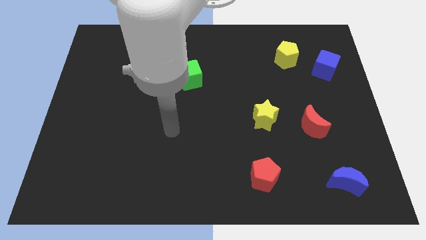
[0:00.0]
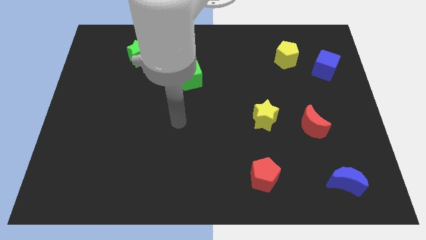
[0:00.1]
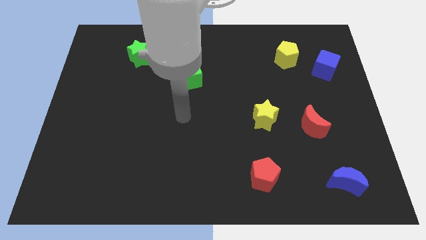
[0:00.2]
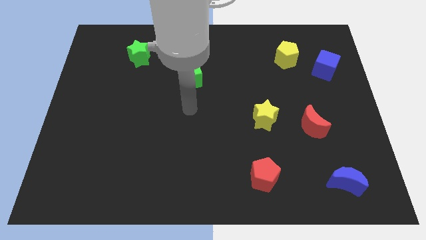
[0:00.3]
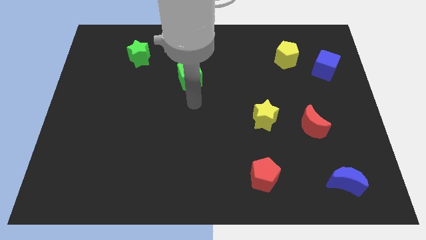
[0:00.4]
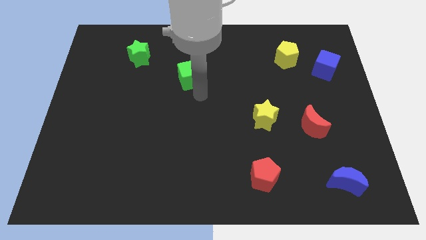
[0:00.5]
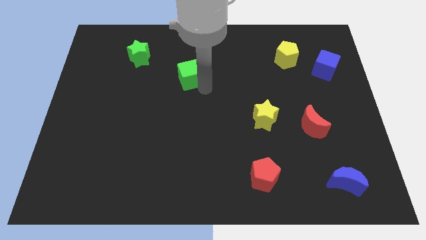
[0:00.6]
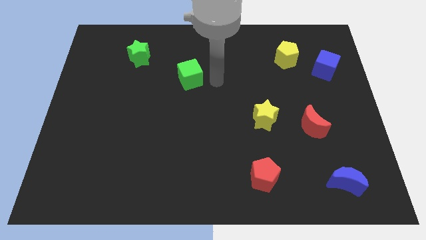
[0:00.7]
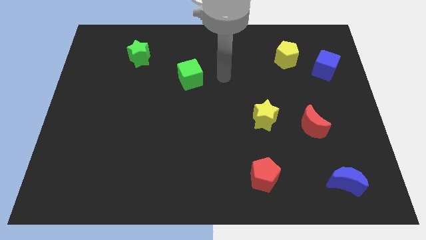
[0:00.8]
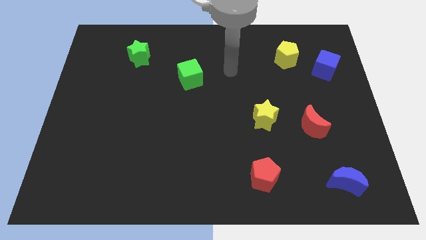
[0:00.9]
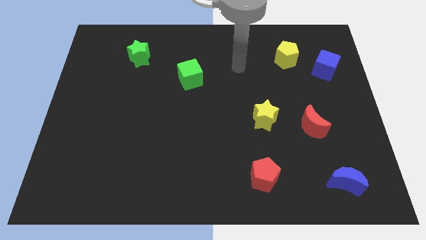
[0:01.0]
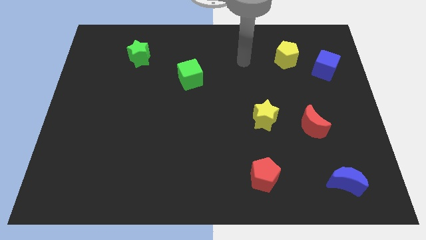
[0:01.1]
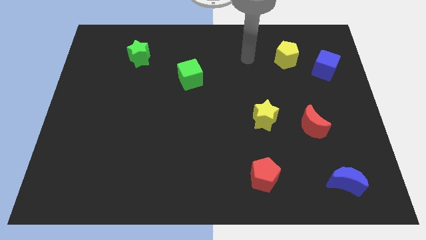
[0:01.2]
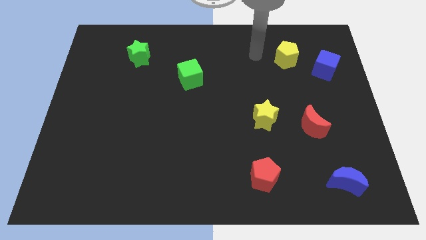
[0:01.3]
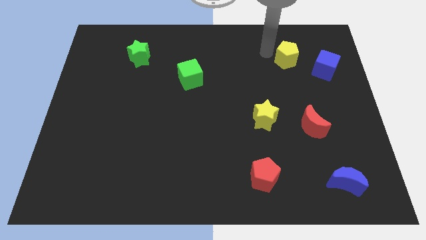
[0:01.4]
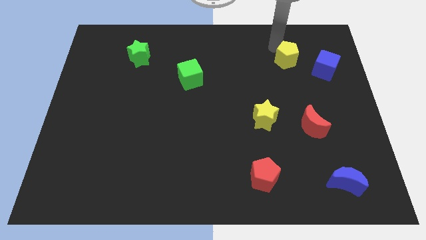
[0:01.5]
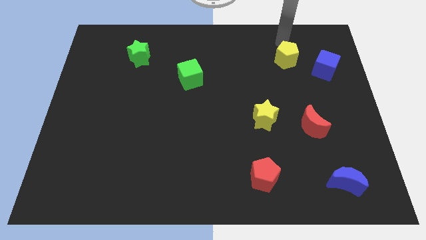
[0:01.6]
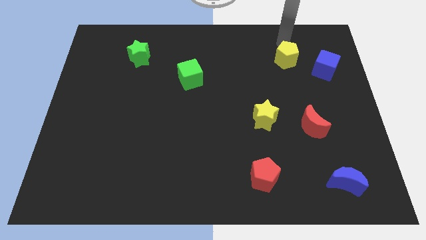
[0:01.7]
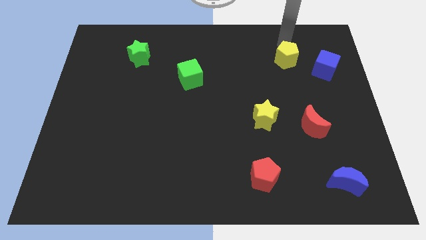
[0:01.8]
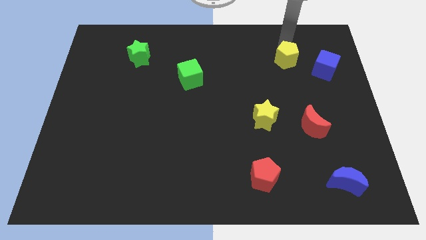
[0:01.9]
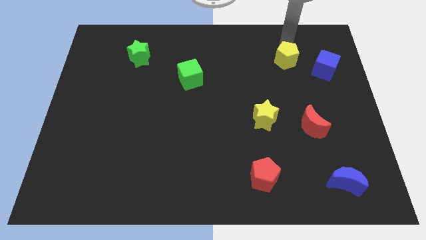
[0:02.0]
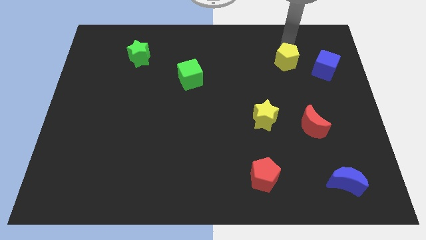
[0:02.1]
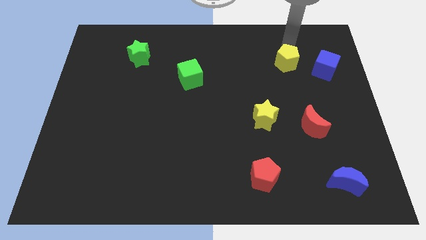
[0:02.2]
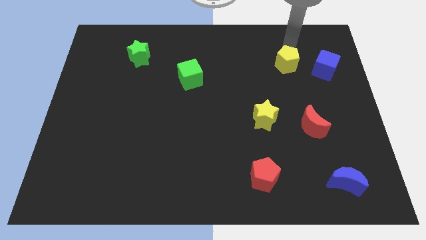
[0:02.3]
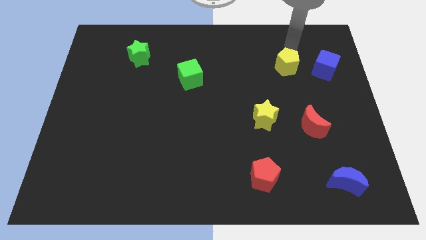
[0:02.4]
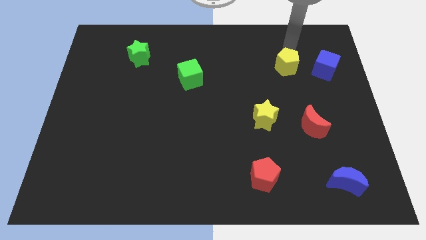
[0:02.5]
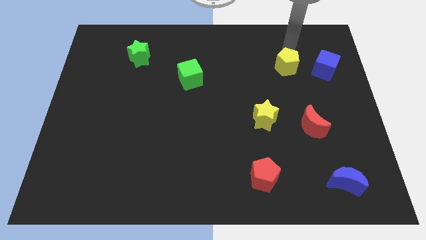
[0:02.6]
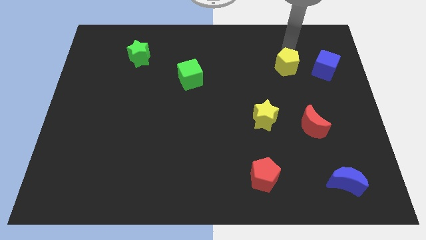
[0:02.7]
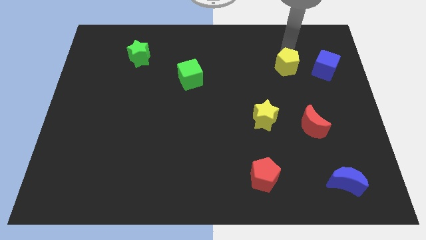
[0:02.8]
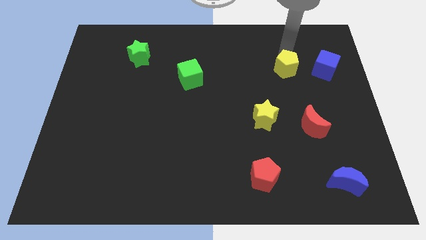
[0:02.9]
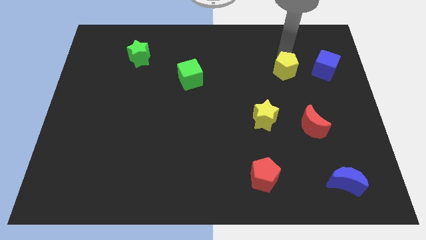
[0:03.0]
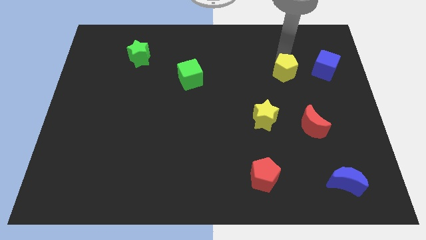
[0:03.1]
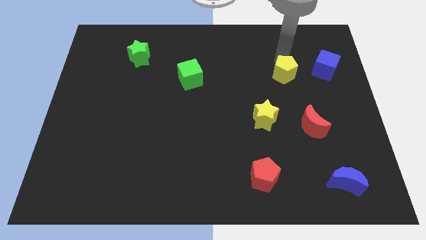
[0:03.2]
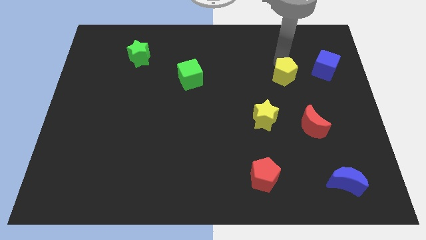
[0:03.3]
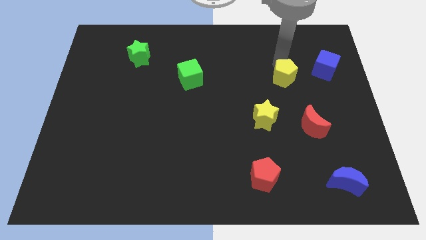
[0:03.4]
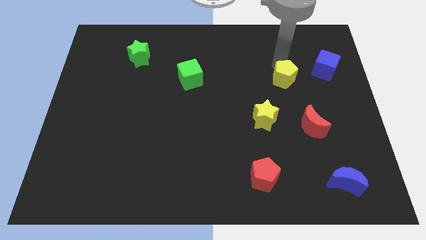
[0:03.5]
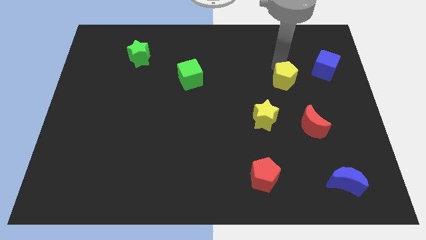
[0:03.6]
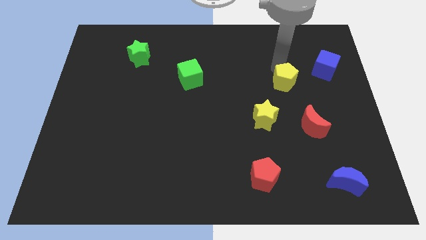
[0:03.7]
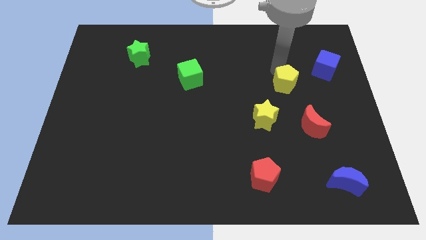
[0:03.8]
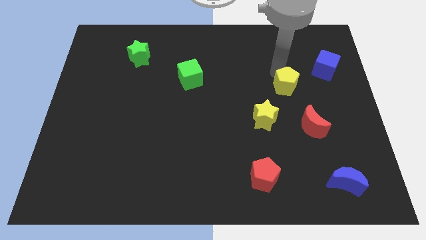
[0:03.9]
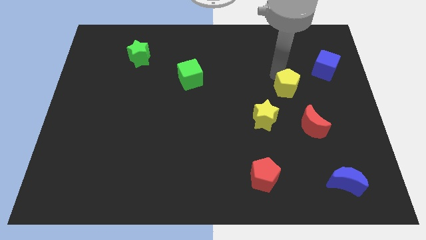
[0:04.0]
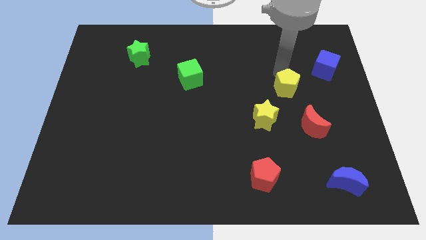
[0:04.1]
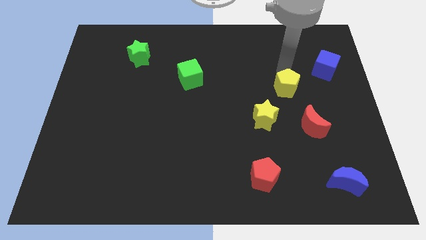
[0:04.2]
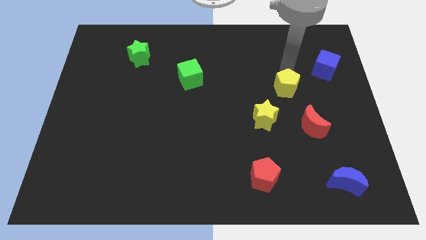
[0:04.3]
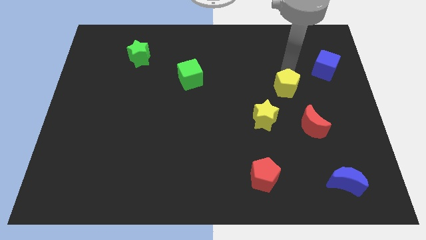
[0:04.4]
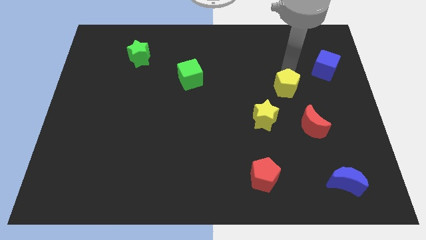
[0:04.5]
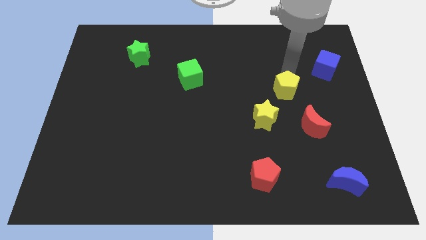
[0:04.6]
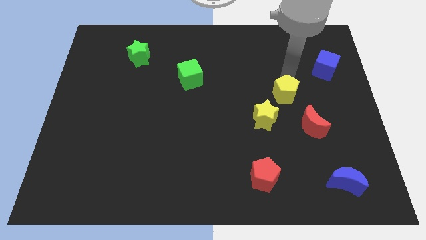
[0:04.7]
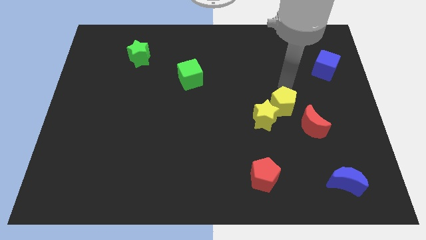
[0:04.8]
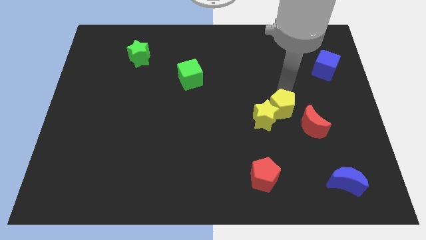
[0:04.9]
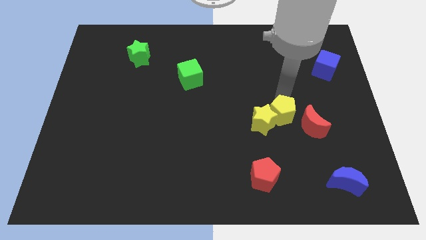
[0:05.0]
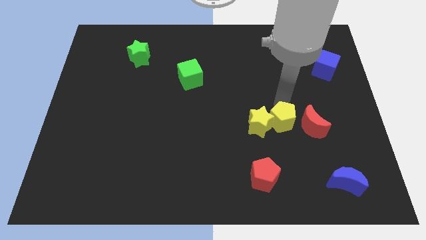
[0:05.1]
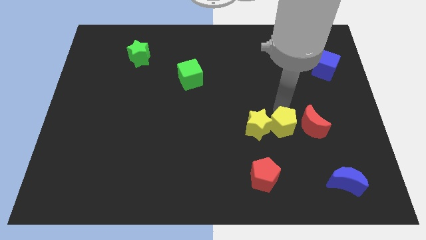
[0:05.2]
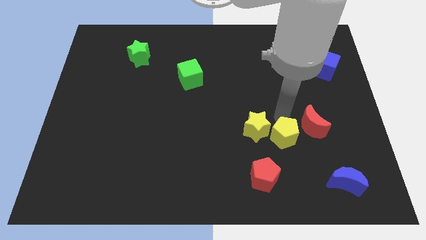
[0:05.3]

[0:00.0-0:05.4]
slide the yellow pentagon to the top right of the red pentagon

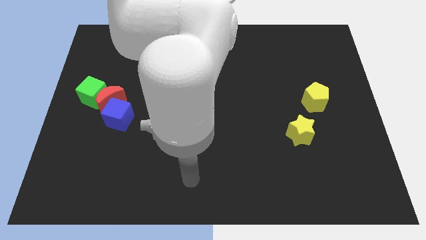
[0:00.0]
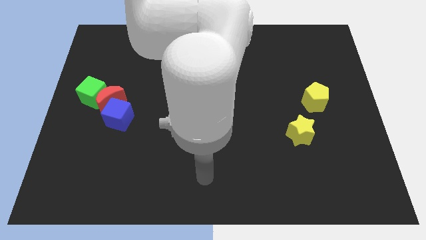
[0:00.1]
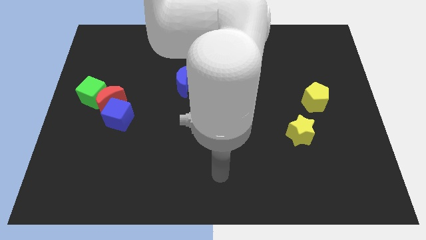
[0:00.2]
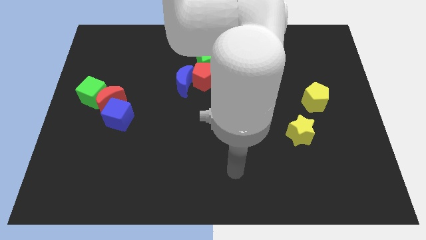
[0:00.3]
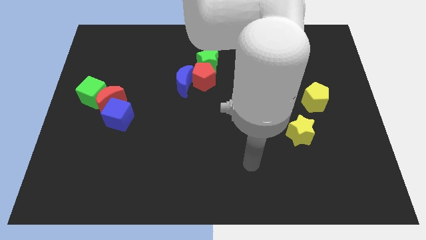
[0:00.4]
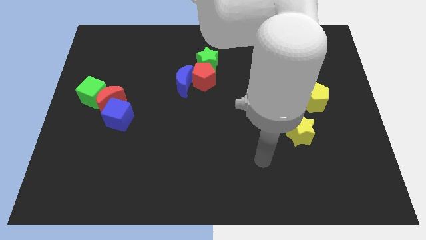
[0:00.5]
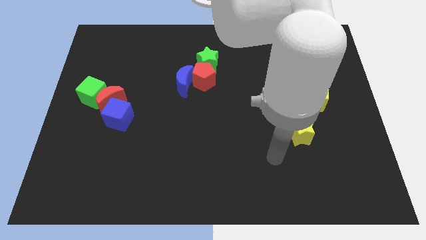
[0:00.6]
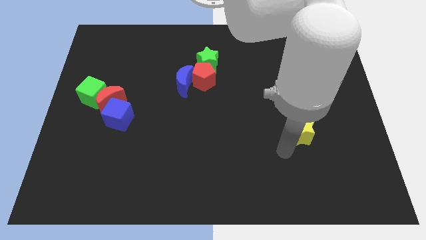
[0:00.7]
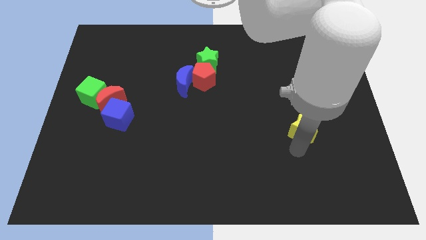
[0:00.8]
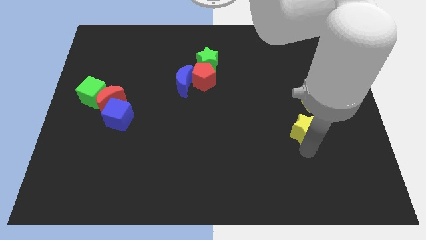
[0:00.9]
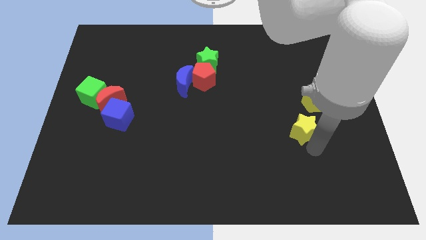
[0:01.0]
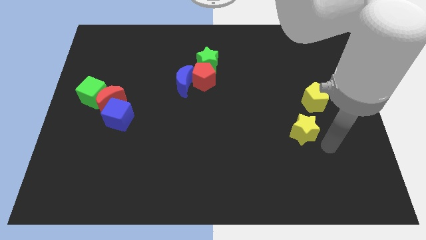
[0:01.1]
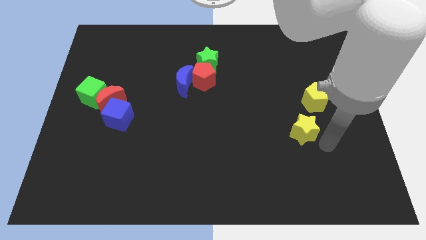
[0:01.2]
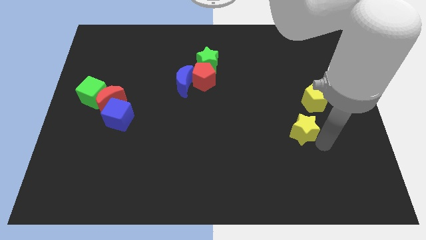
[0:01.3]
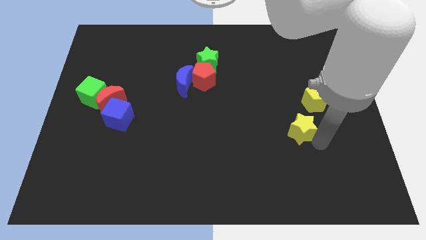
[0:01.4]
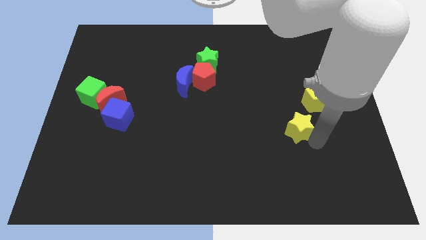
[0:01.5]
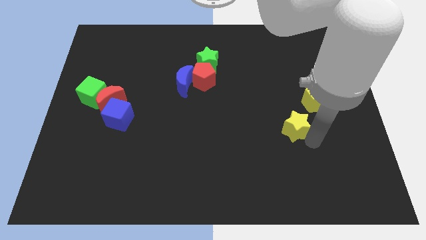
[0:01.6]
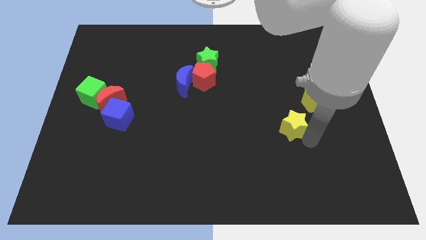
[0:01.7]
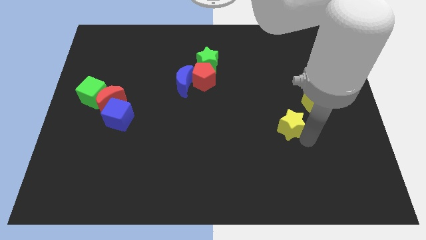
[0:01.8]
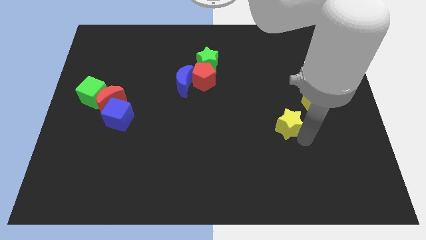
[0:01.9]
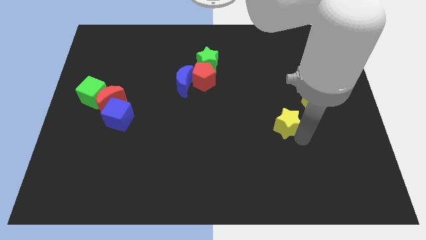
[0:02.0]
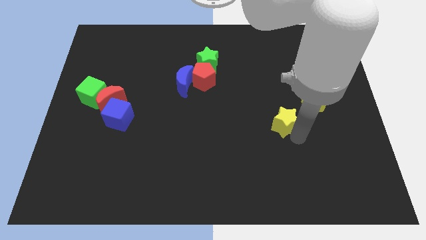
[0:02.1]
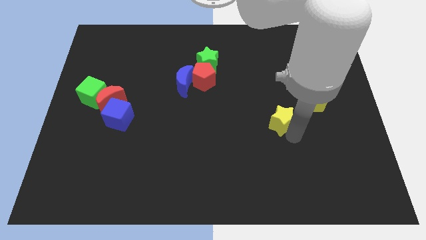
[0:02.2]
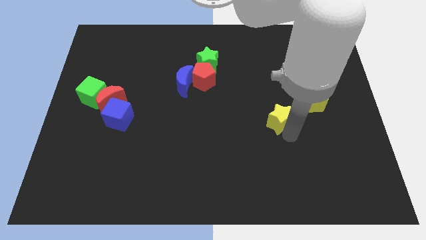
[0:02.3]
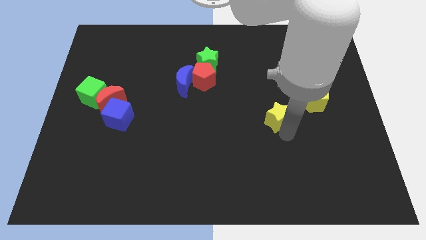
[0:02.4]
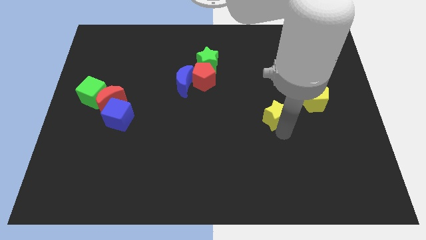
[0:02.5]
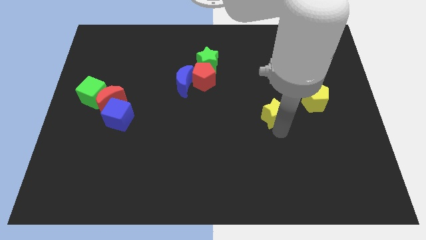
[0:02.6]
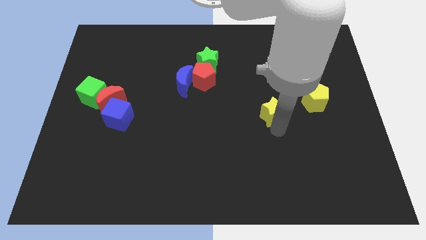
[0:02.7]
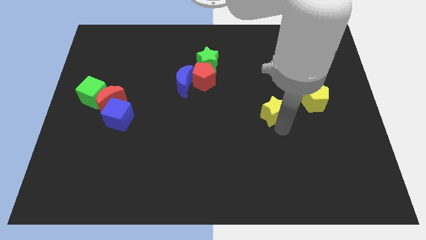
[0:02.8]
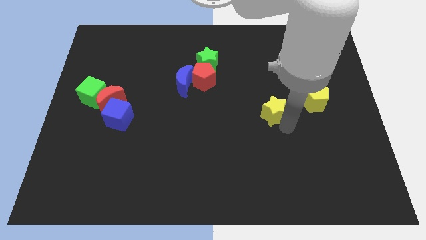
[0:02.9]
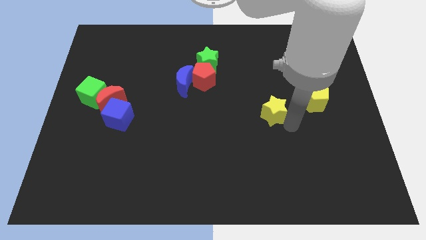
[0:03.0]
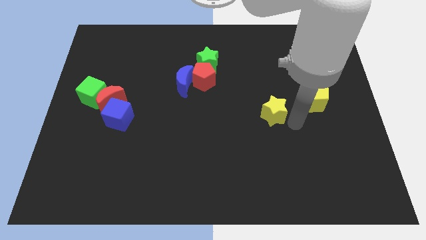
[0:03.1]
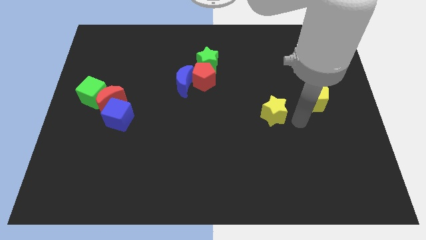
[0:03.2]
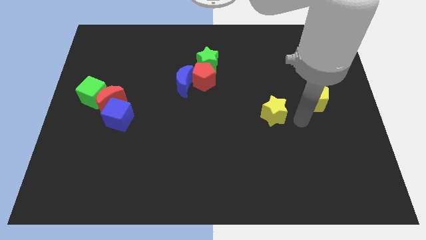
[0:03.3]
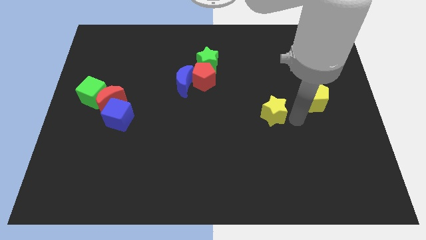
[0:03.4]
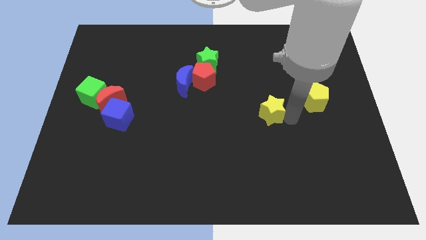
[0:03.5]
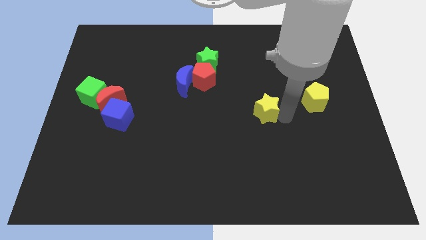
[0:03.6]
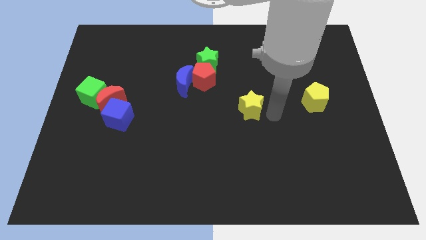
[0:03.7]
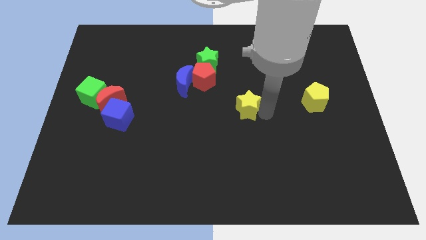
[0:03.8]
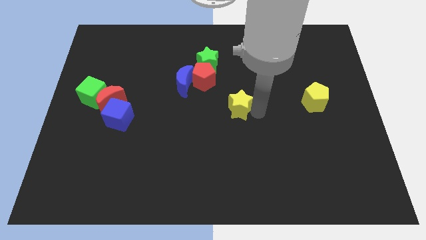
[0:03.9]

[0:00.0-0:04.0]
push the yellow star to the bottom right side of the red pentagon
